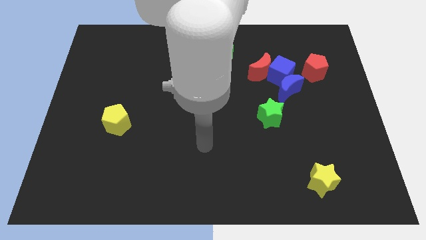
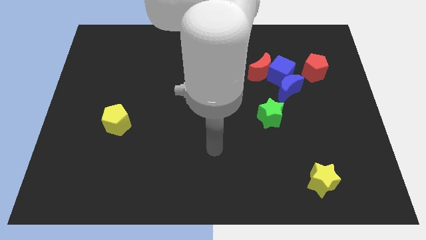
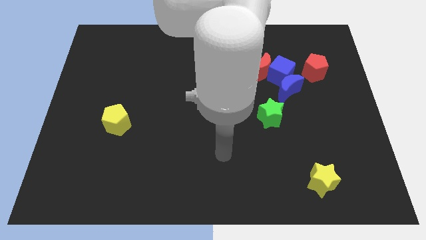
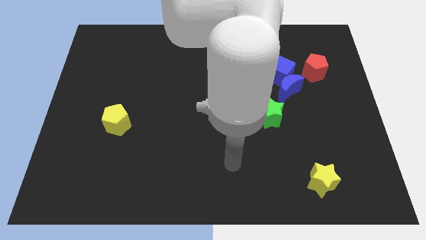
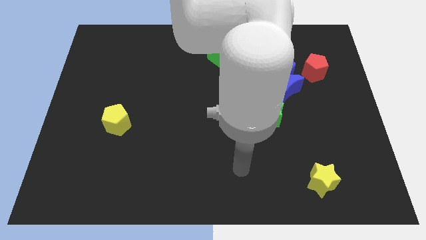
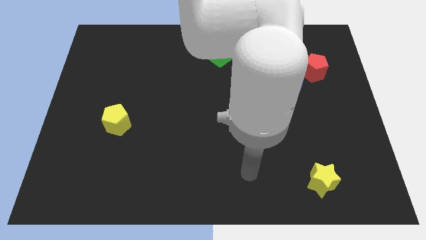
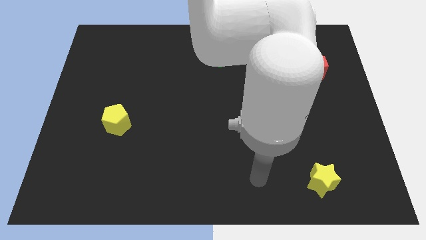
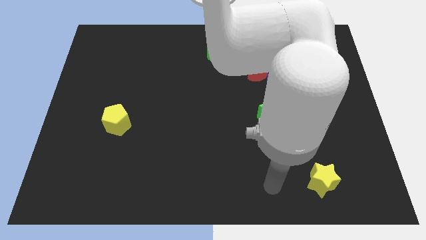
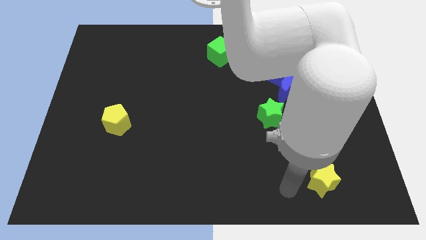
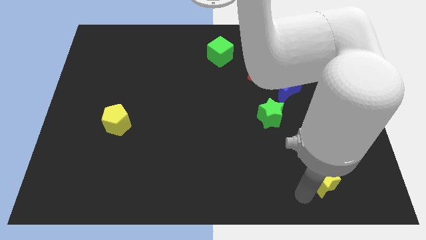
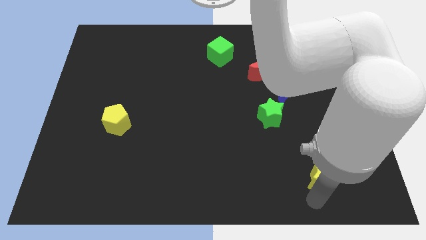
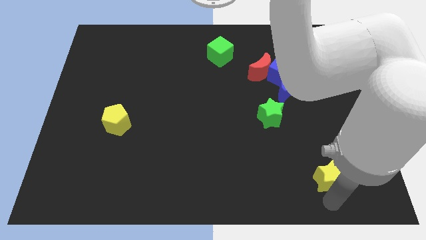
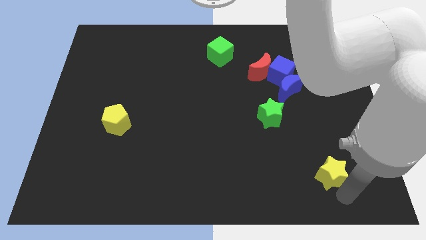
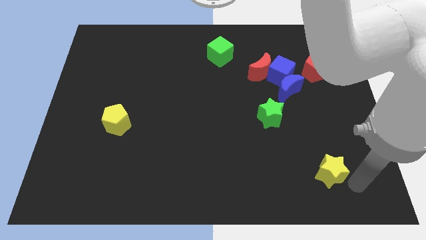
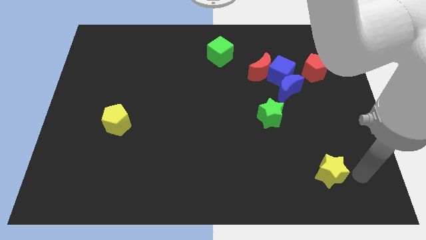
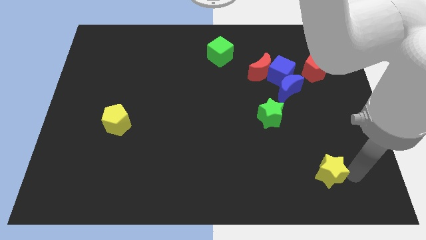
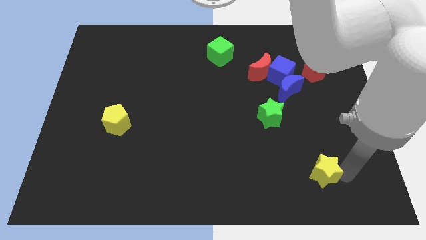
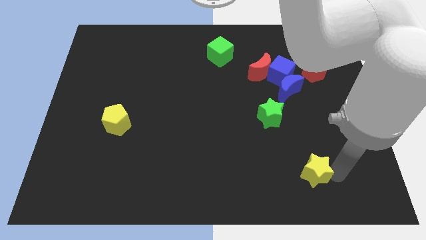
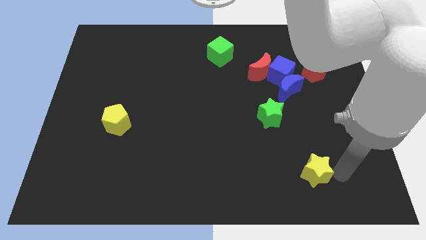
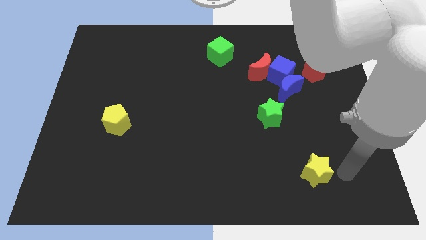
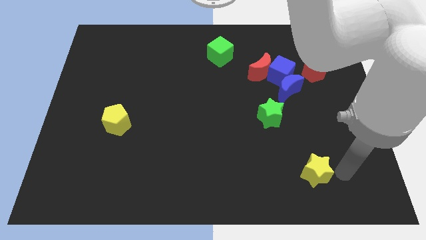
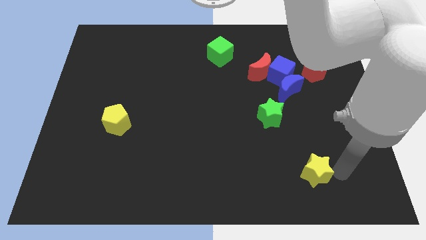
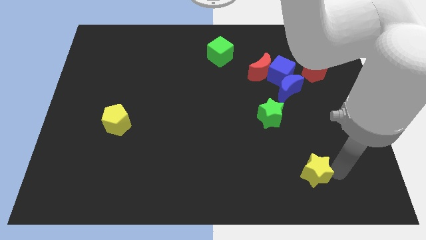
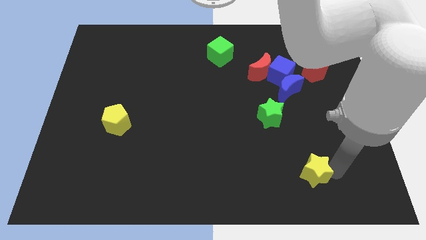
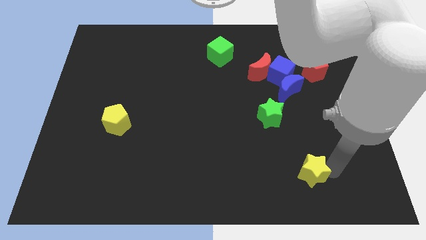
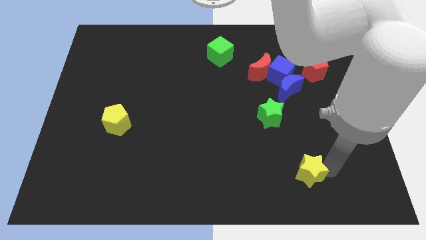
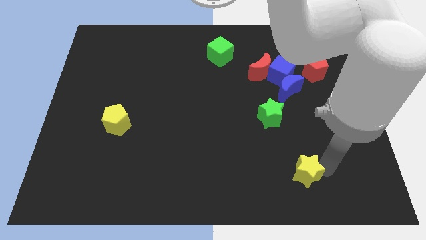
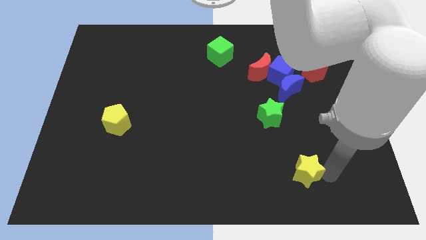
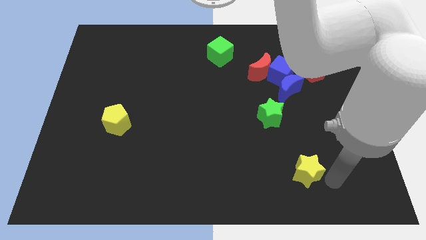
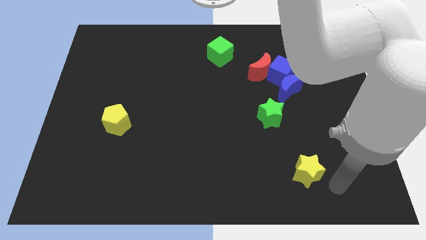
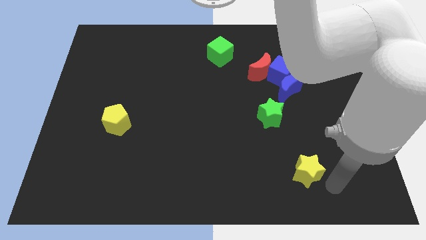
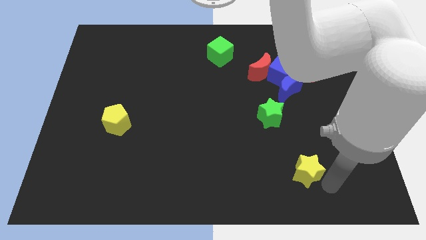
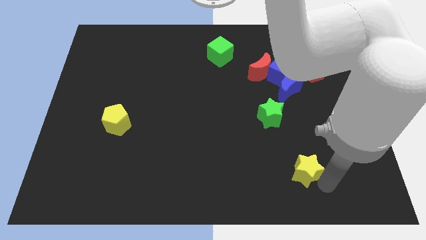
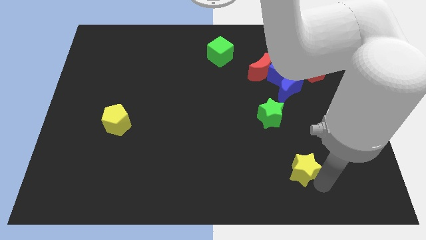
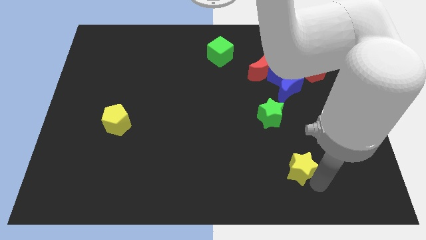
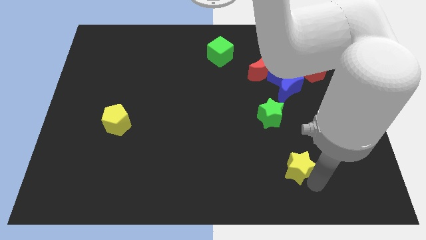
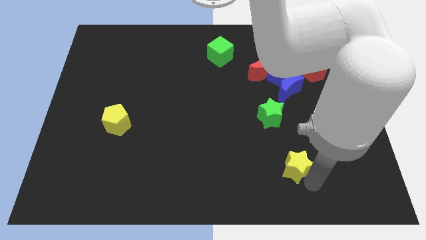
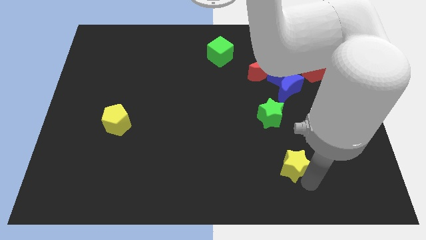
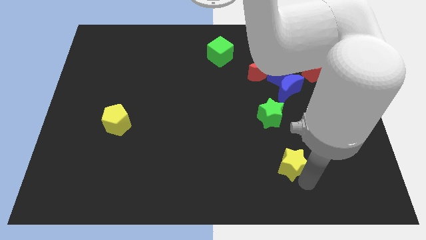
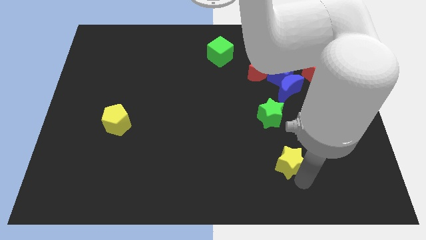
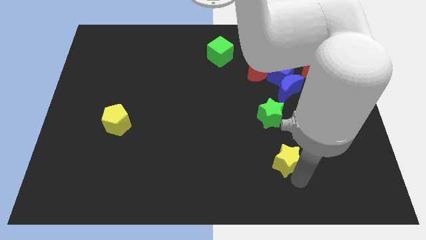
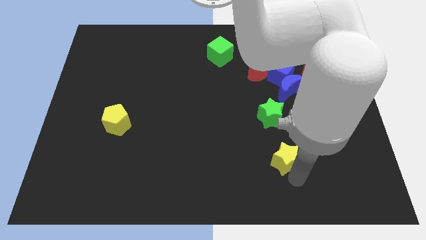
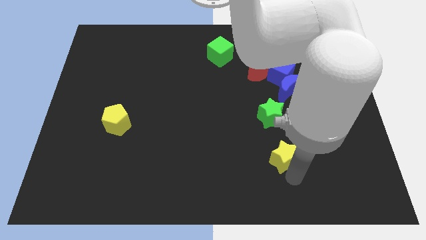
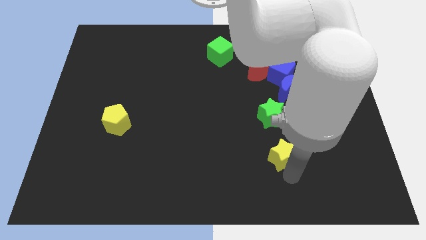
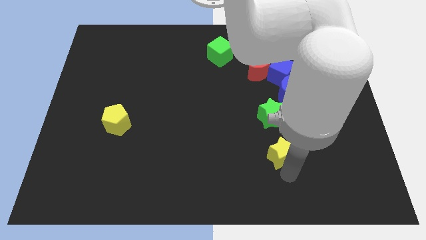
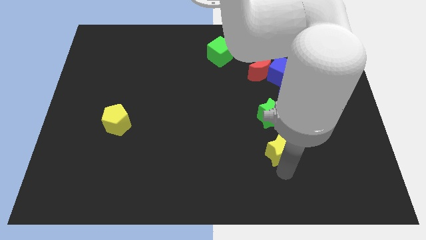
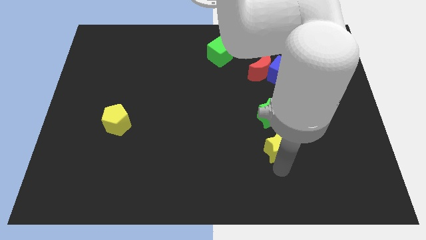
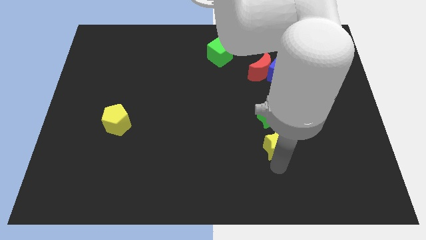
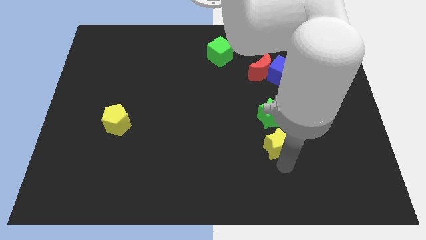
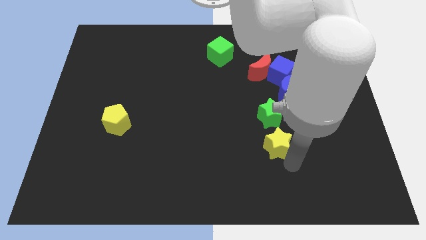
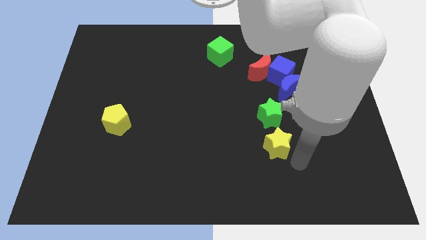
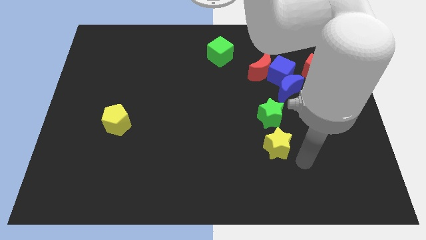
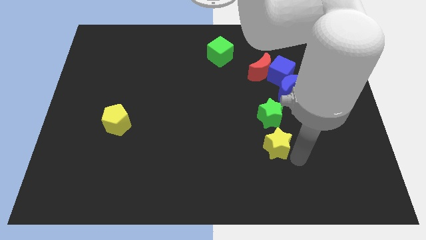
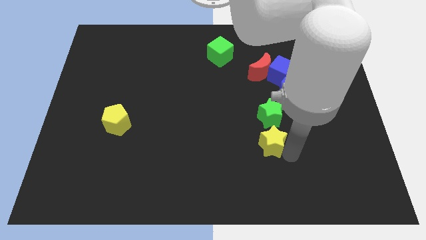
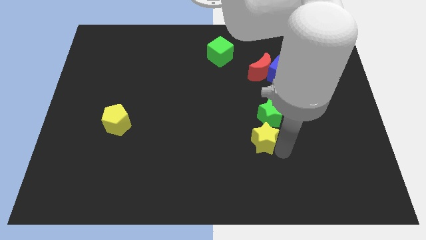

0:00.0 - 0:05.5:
push the yellow star to the bottom left side of the green star

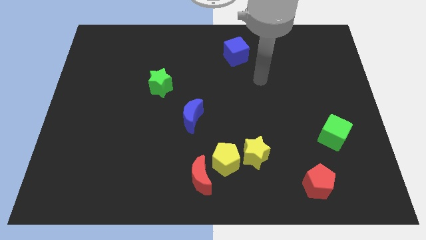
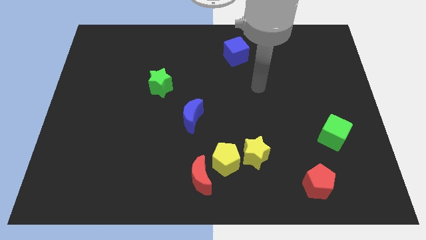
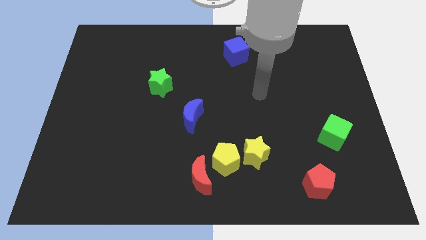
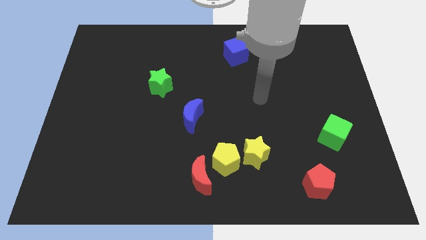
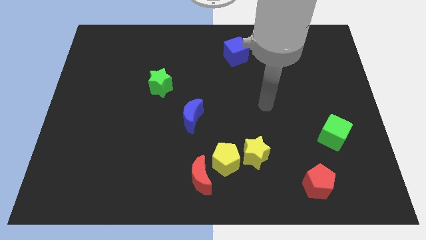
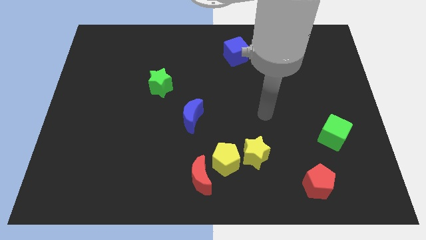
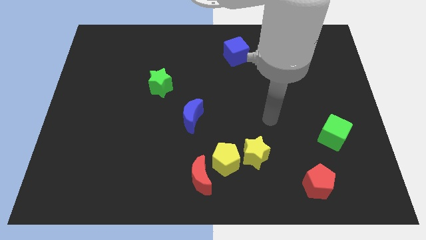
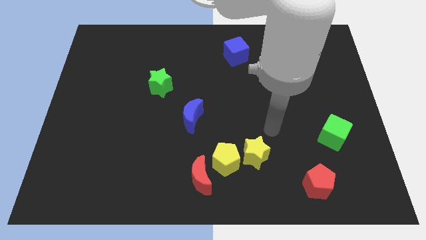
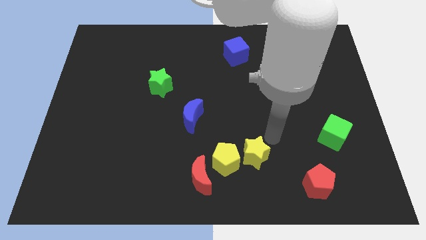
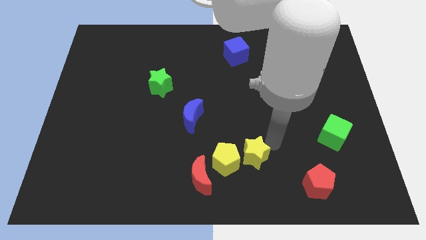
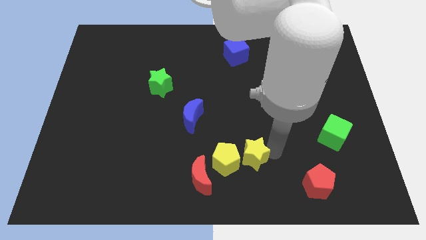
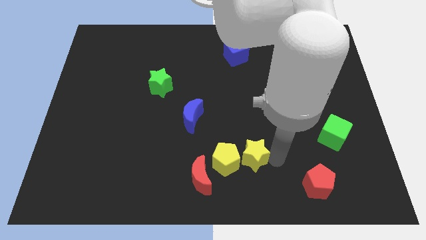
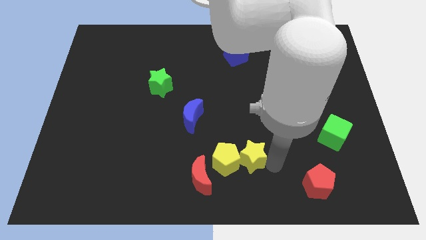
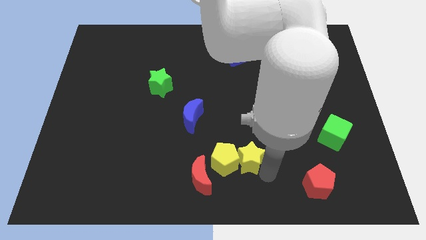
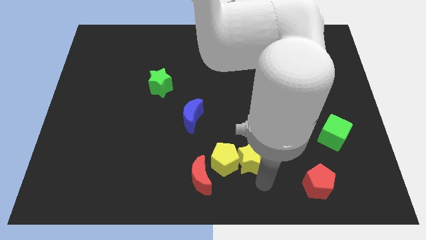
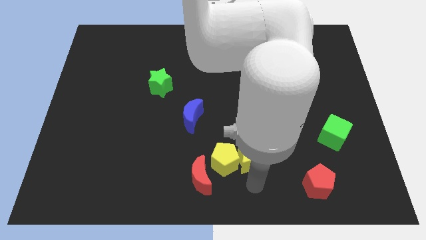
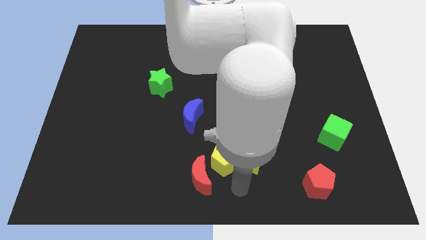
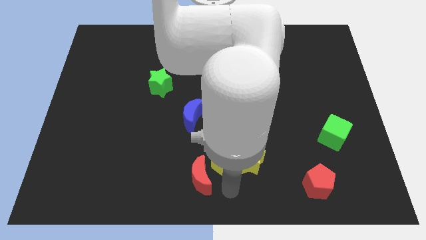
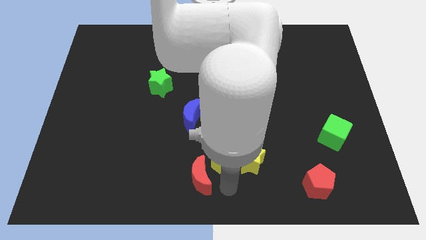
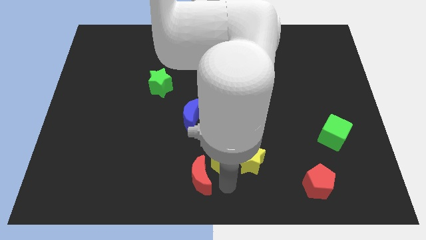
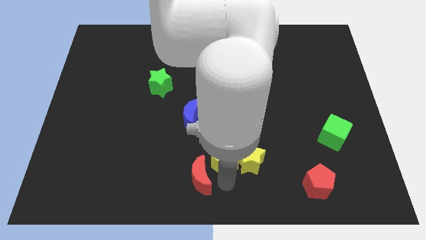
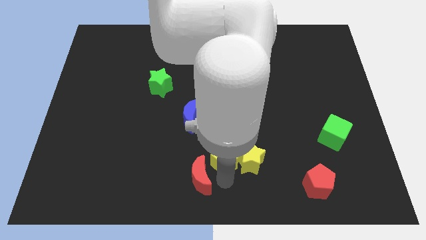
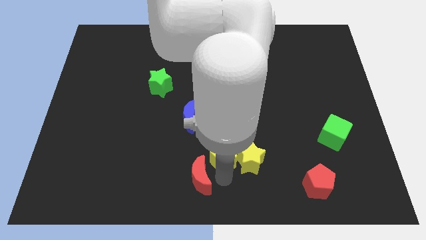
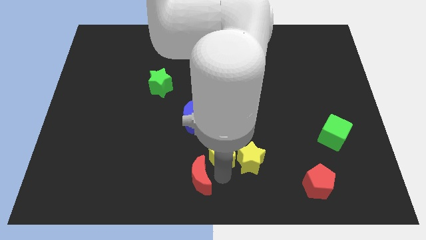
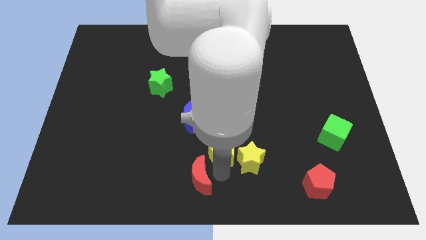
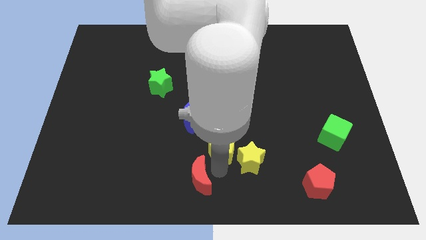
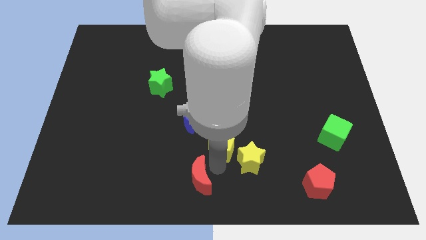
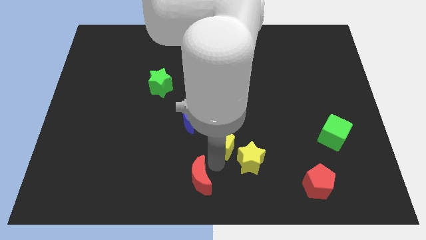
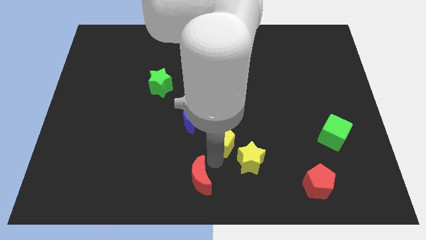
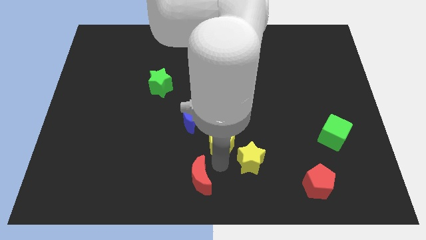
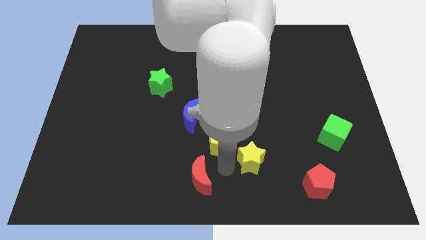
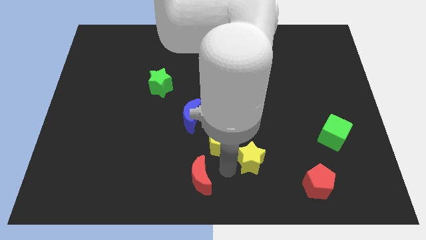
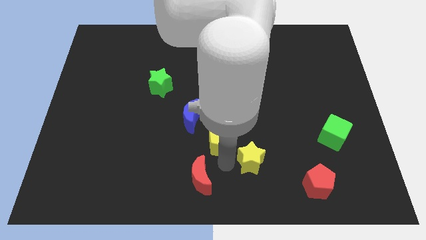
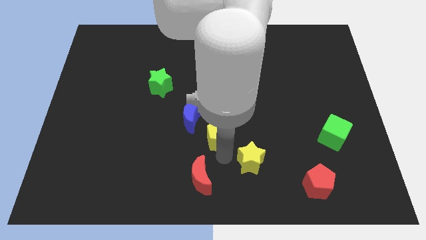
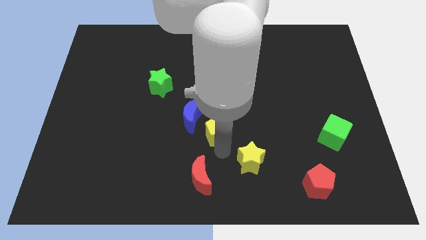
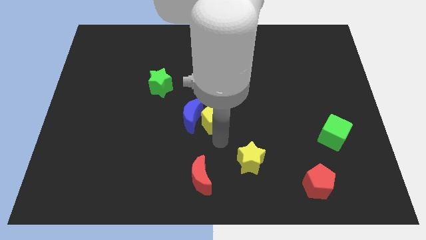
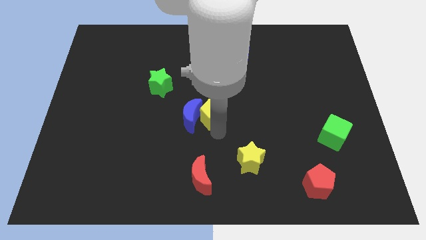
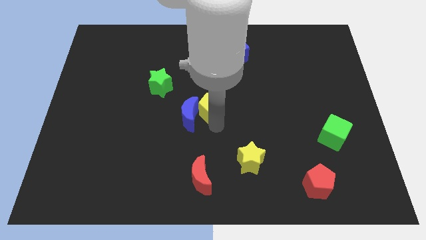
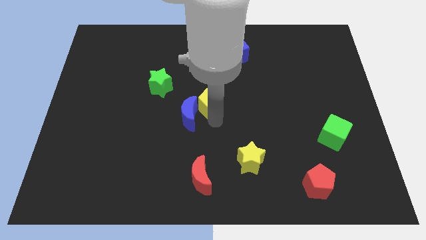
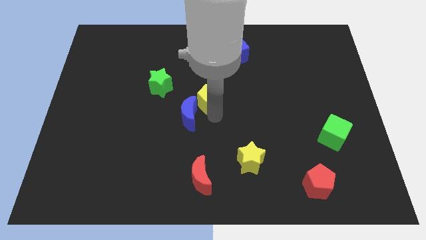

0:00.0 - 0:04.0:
push the yellow pentagon to the top of the blue moon
